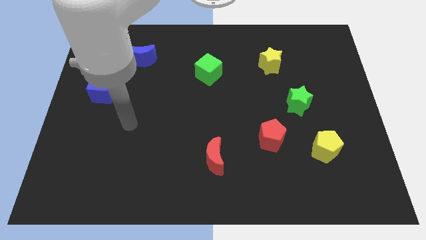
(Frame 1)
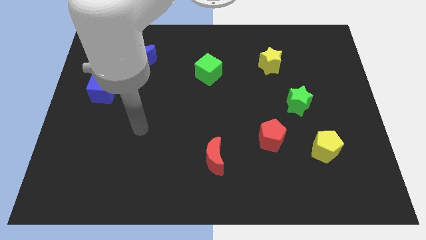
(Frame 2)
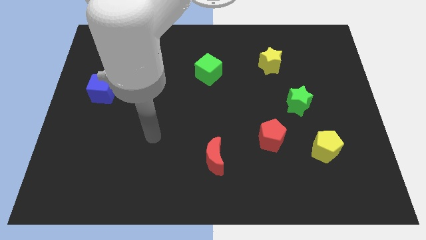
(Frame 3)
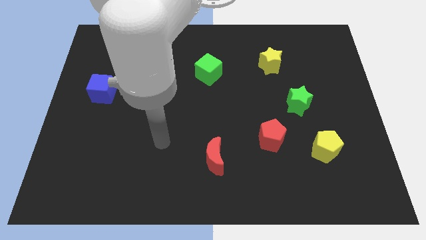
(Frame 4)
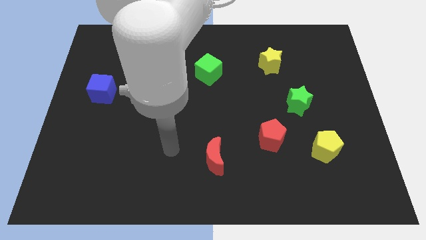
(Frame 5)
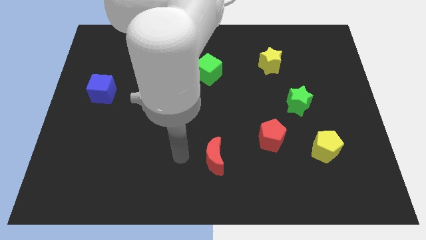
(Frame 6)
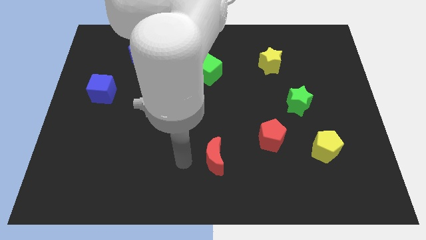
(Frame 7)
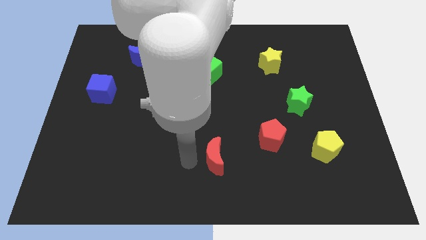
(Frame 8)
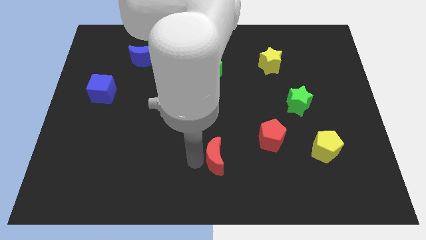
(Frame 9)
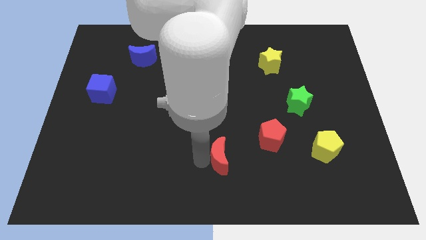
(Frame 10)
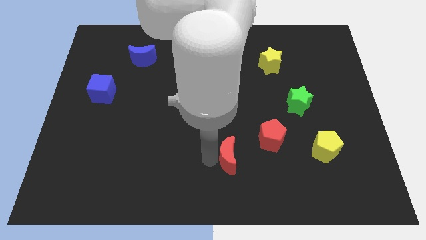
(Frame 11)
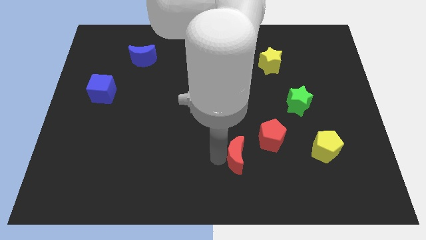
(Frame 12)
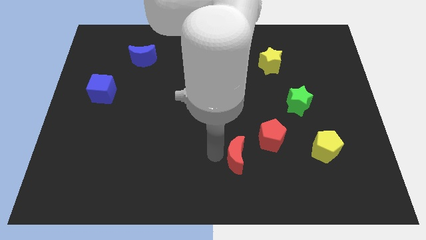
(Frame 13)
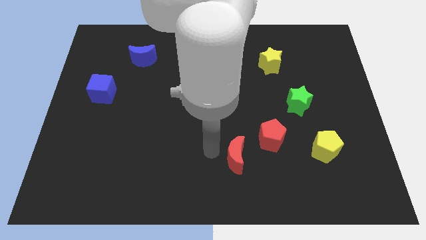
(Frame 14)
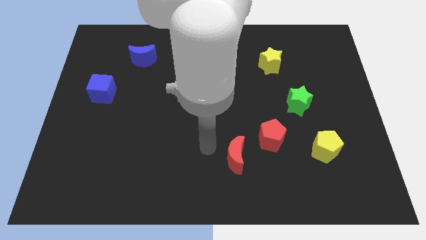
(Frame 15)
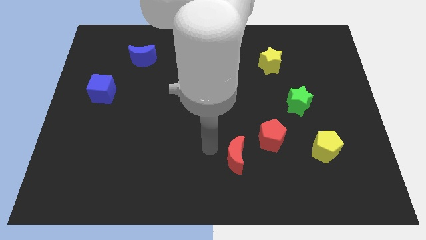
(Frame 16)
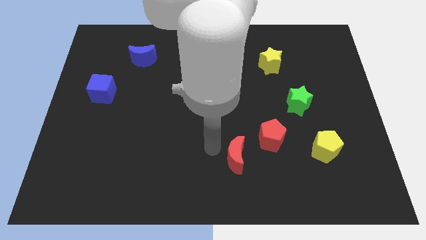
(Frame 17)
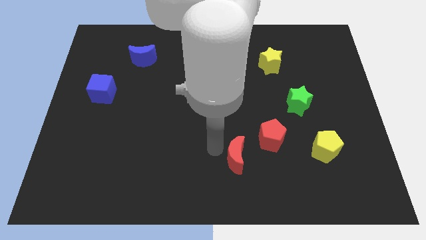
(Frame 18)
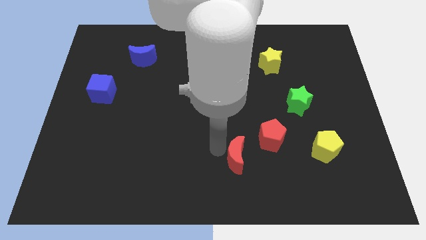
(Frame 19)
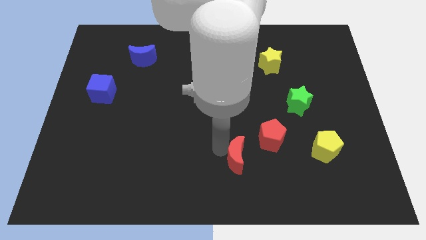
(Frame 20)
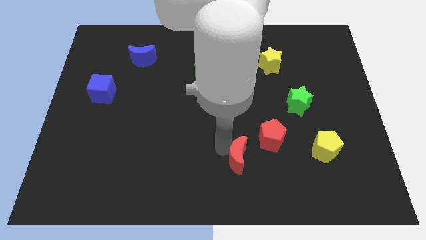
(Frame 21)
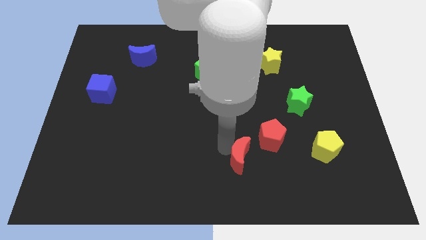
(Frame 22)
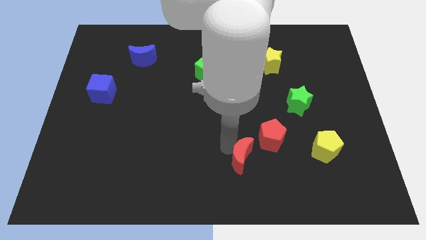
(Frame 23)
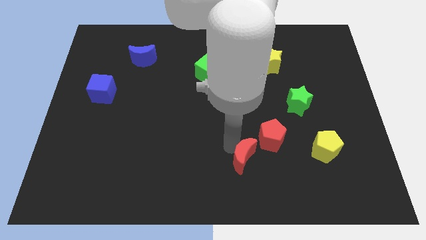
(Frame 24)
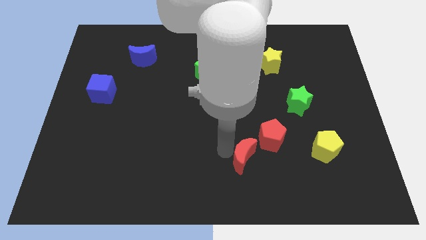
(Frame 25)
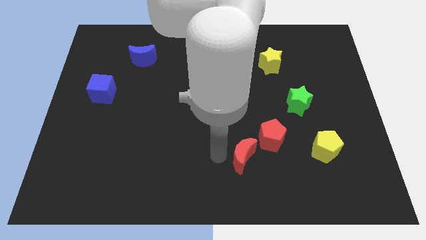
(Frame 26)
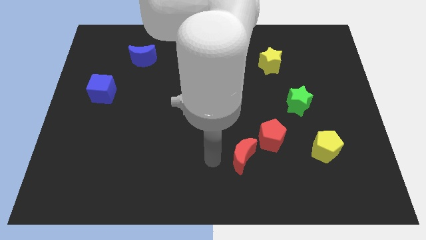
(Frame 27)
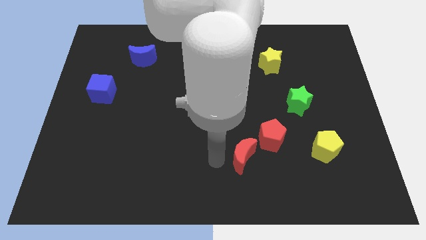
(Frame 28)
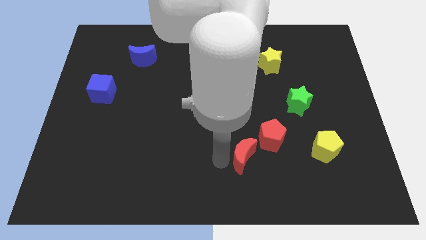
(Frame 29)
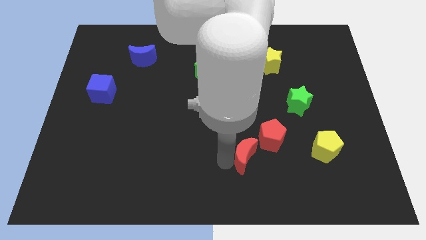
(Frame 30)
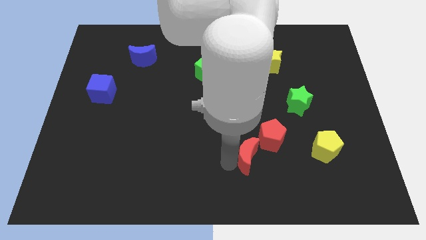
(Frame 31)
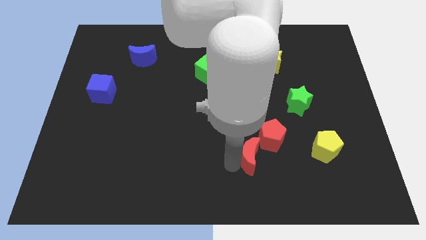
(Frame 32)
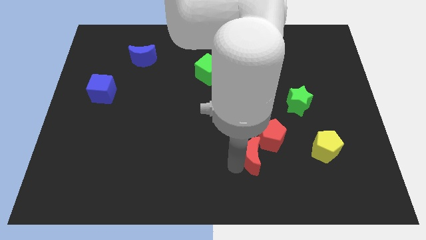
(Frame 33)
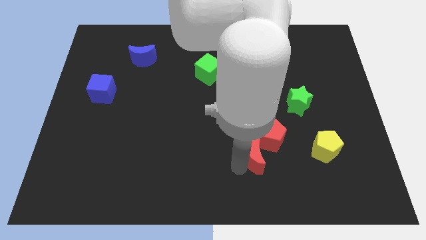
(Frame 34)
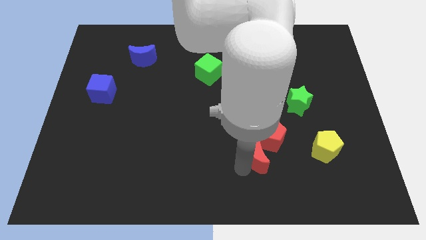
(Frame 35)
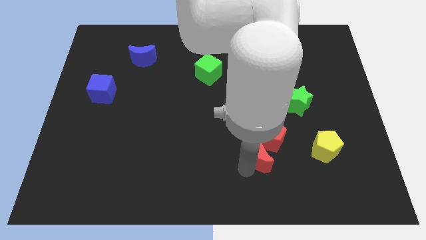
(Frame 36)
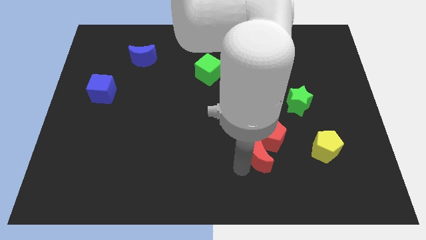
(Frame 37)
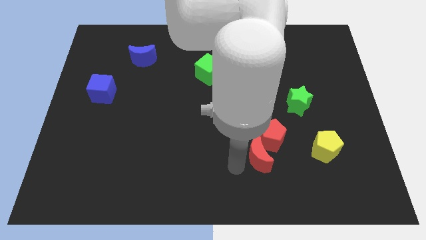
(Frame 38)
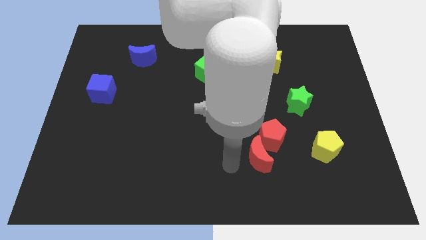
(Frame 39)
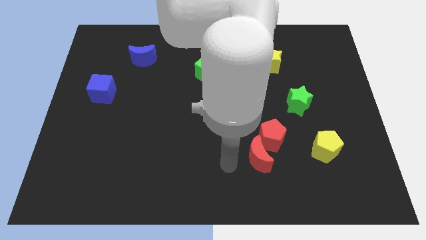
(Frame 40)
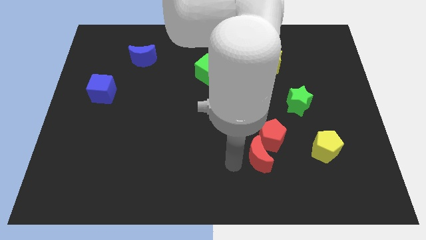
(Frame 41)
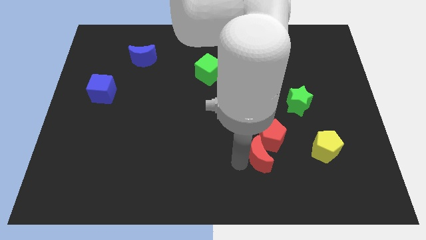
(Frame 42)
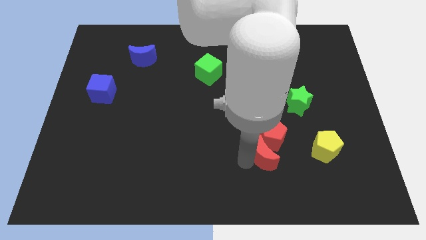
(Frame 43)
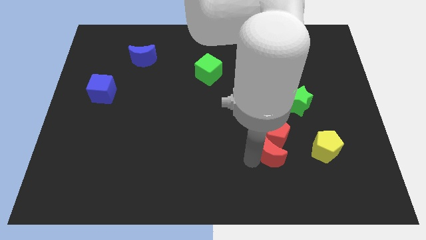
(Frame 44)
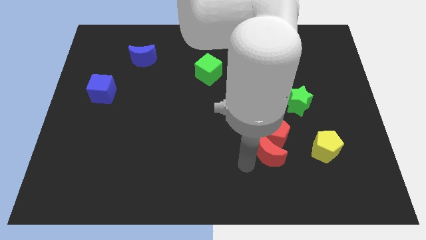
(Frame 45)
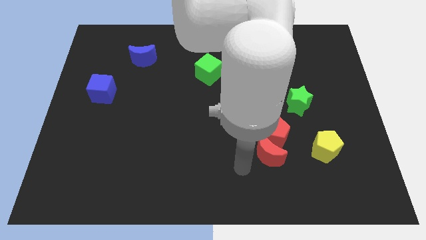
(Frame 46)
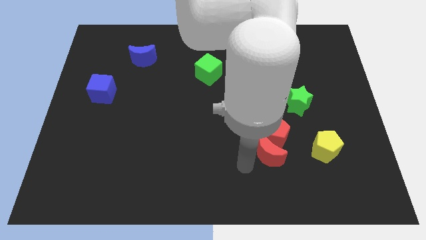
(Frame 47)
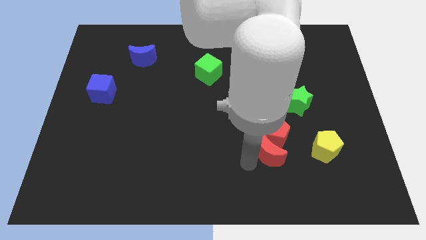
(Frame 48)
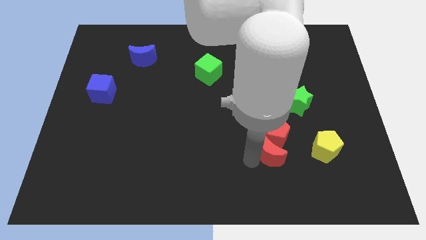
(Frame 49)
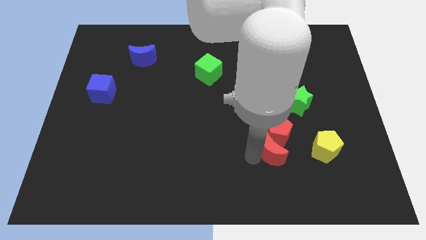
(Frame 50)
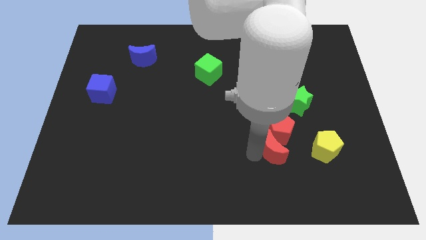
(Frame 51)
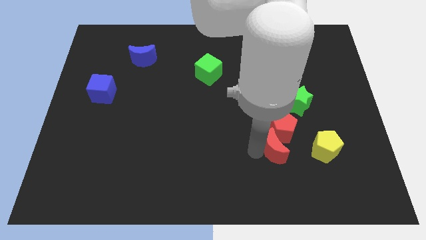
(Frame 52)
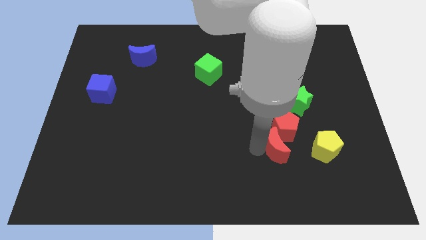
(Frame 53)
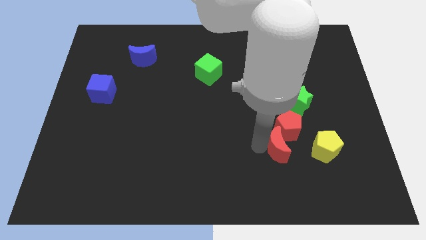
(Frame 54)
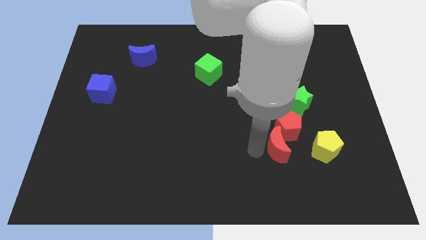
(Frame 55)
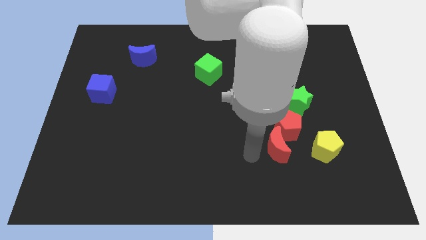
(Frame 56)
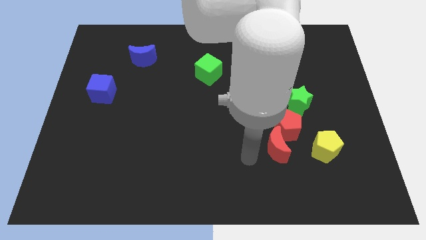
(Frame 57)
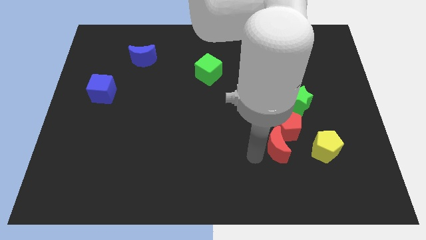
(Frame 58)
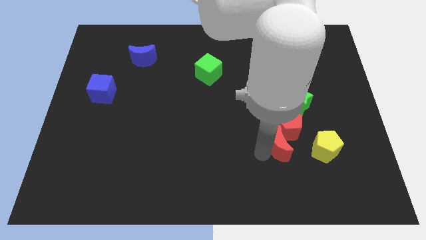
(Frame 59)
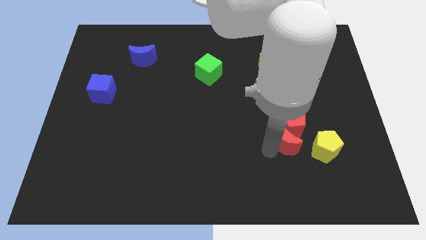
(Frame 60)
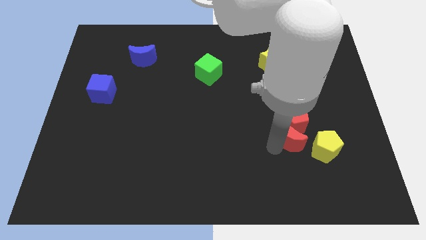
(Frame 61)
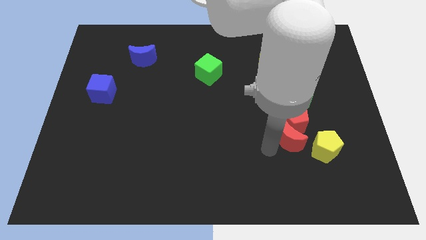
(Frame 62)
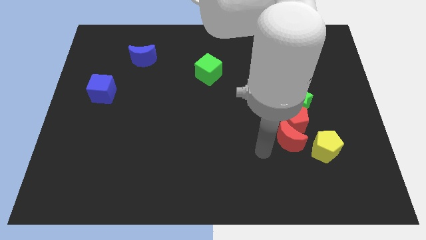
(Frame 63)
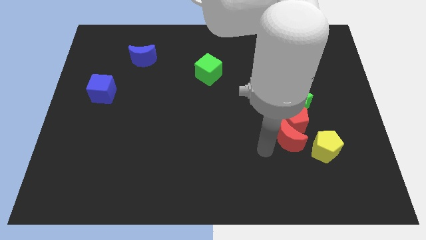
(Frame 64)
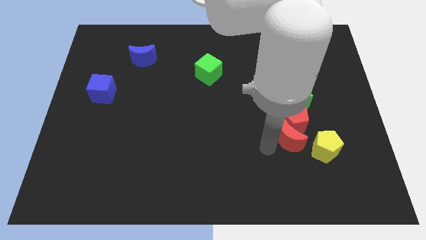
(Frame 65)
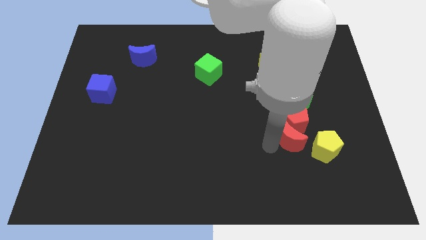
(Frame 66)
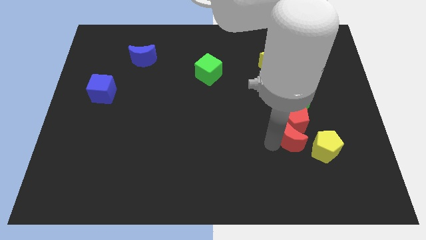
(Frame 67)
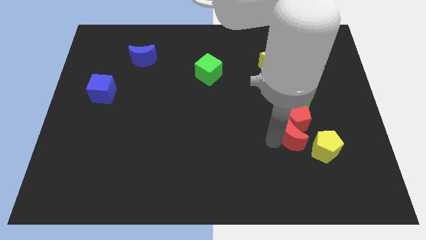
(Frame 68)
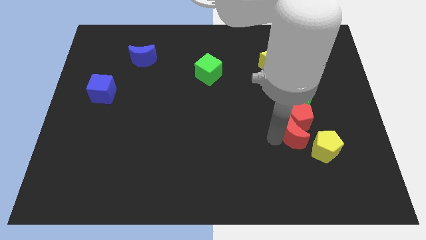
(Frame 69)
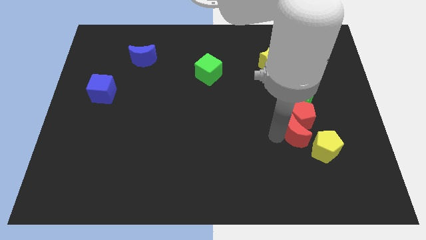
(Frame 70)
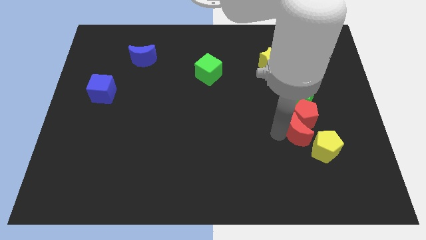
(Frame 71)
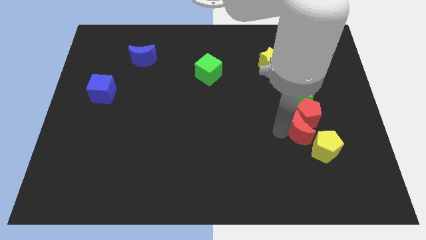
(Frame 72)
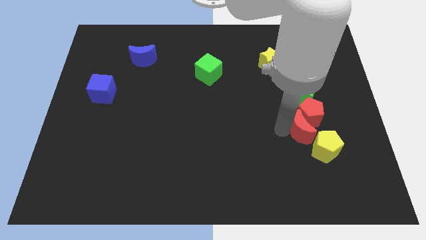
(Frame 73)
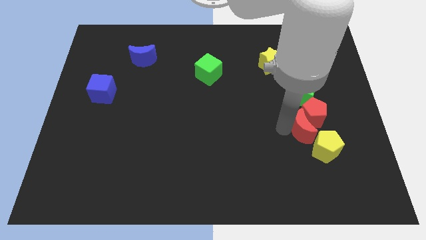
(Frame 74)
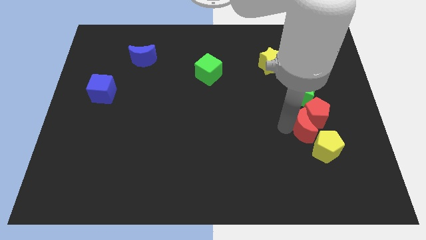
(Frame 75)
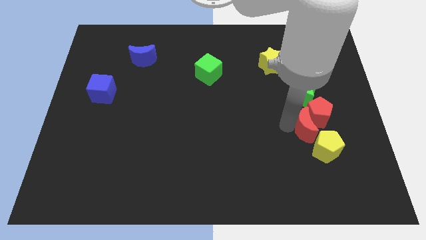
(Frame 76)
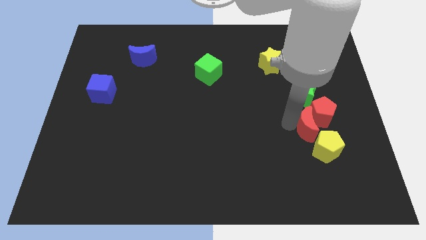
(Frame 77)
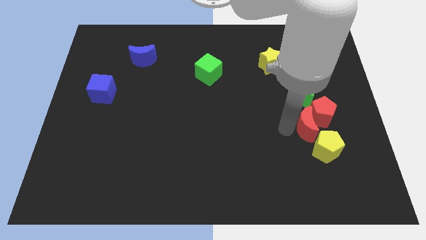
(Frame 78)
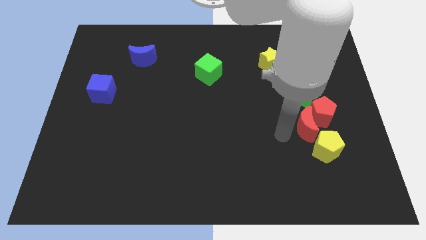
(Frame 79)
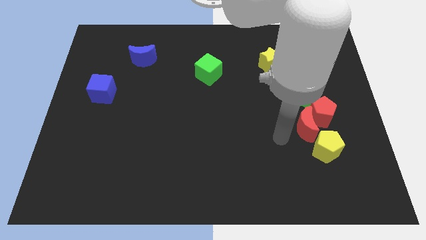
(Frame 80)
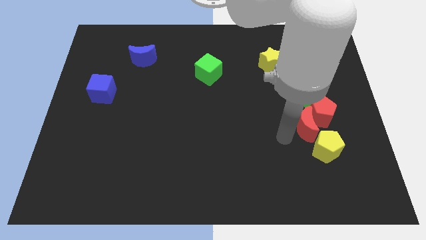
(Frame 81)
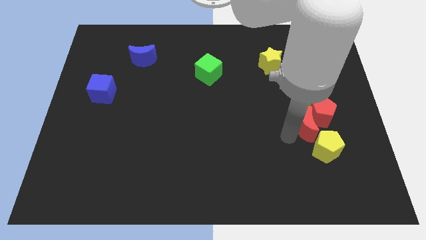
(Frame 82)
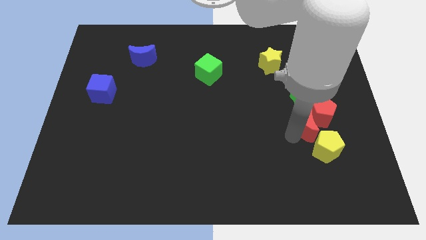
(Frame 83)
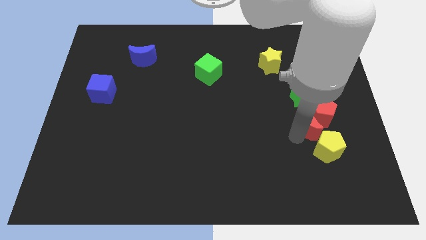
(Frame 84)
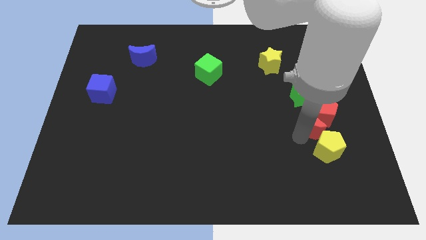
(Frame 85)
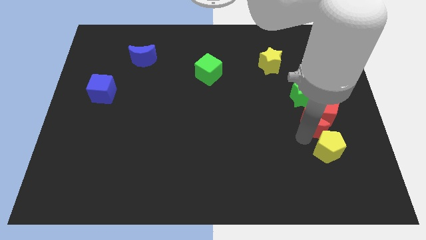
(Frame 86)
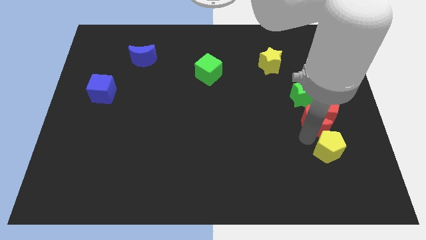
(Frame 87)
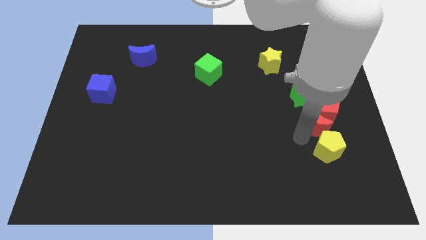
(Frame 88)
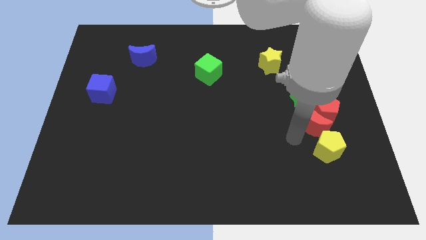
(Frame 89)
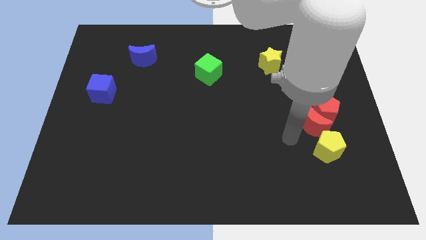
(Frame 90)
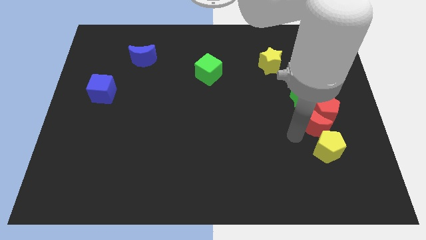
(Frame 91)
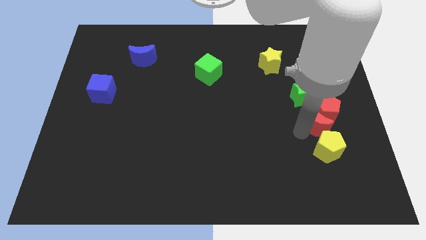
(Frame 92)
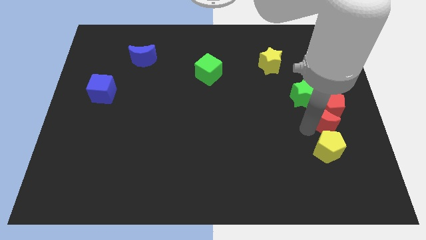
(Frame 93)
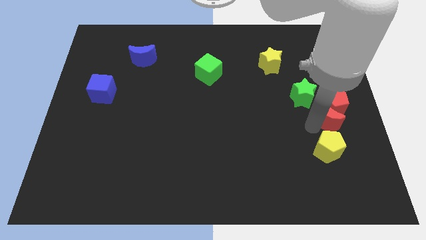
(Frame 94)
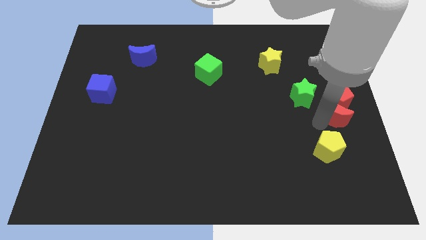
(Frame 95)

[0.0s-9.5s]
push the red moon to the center right
